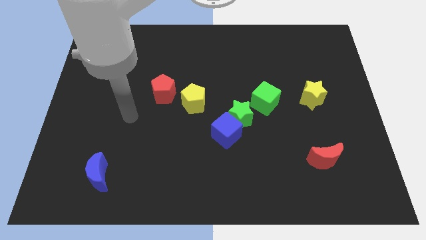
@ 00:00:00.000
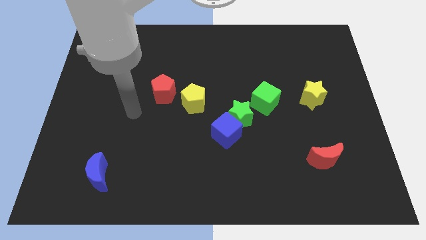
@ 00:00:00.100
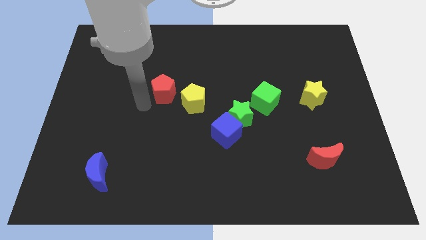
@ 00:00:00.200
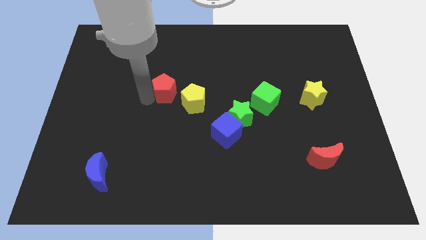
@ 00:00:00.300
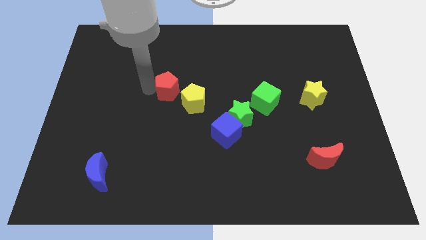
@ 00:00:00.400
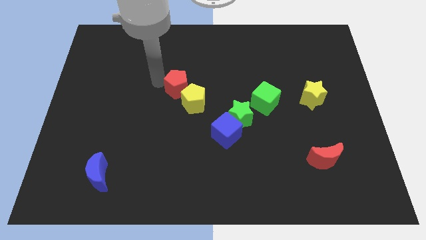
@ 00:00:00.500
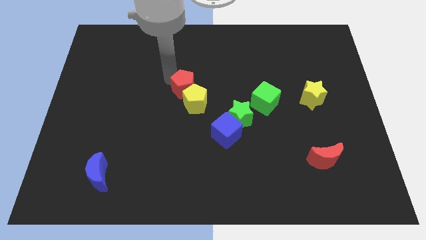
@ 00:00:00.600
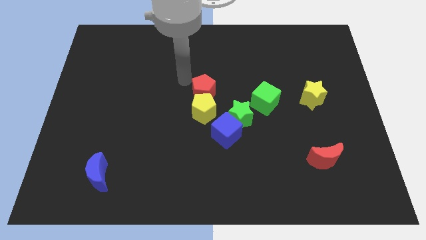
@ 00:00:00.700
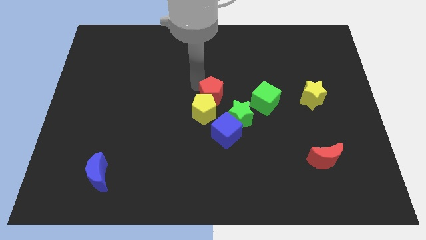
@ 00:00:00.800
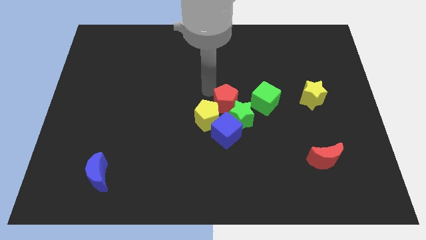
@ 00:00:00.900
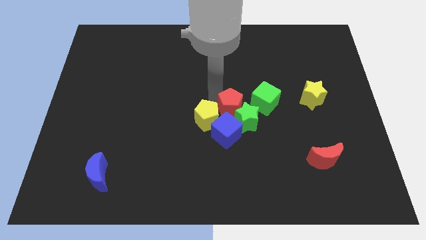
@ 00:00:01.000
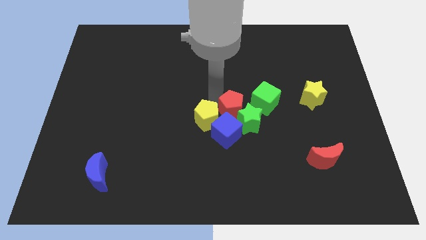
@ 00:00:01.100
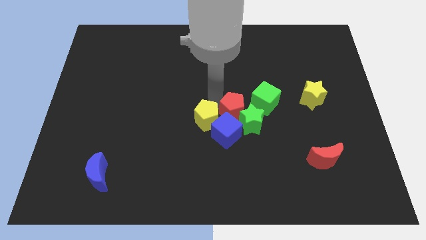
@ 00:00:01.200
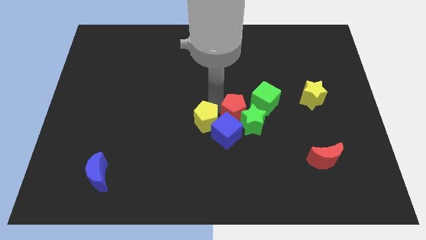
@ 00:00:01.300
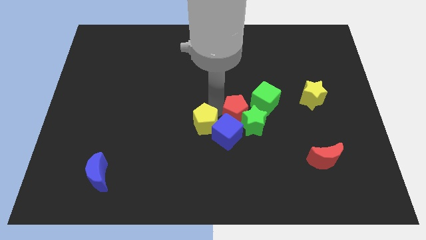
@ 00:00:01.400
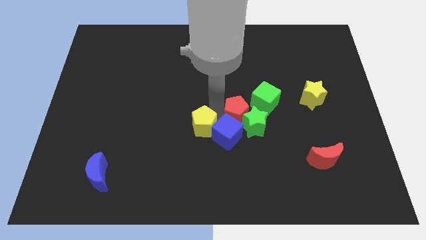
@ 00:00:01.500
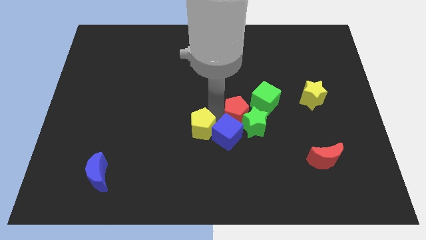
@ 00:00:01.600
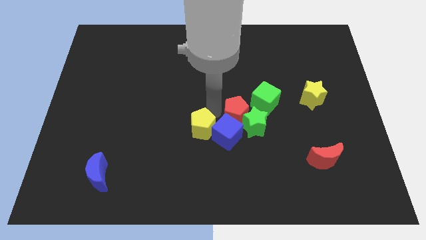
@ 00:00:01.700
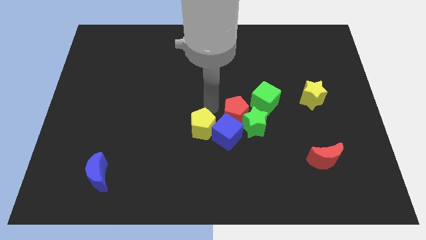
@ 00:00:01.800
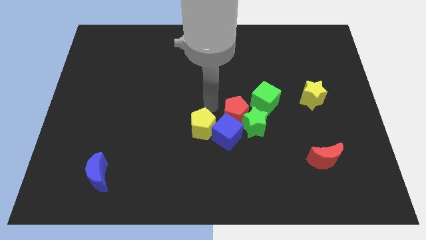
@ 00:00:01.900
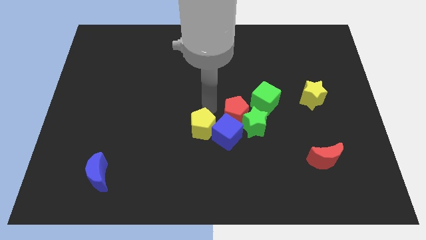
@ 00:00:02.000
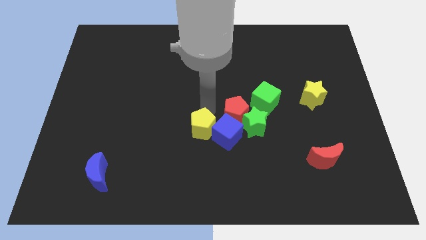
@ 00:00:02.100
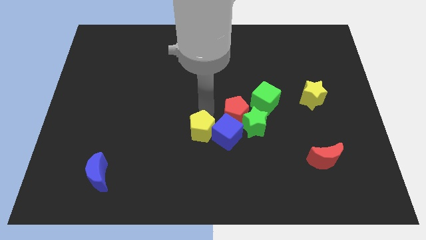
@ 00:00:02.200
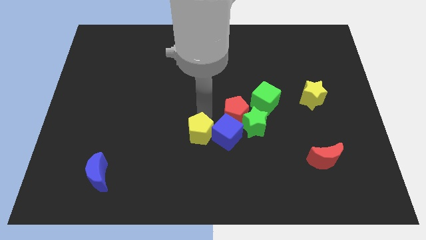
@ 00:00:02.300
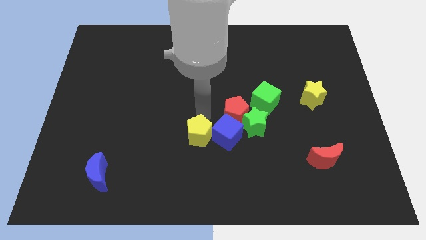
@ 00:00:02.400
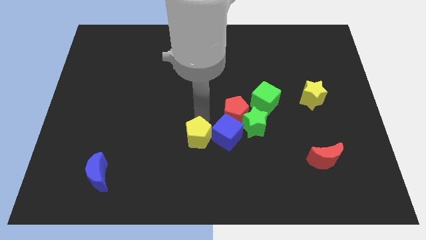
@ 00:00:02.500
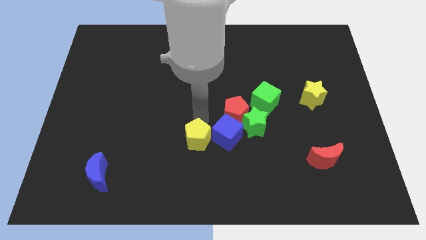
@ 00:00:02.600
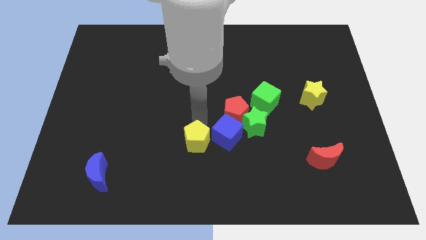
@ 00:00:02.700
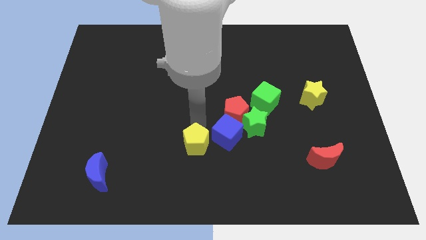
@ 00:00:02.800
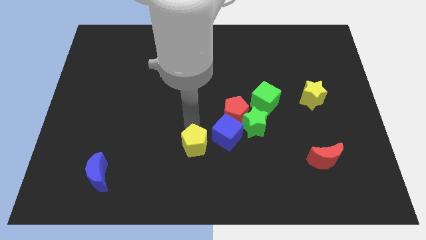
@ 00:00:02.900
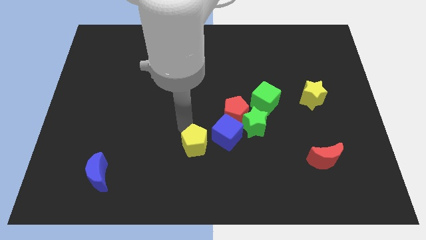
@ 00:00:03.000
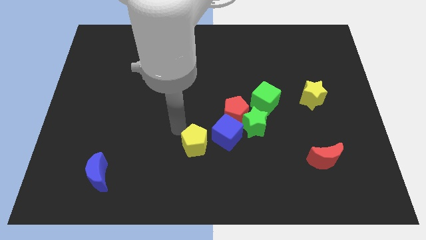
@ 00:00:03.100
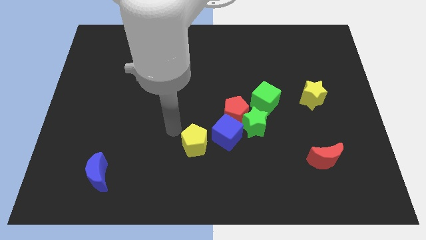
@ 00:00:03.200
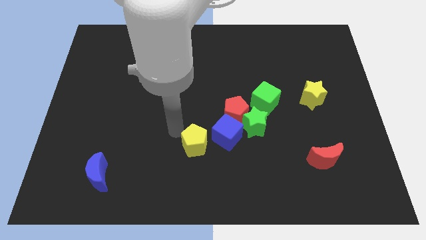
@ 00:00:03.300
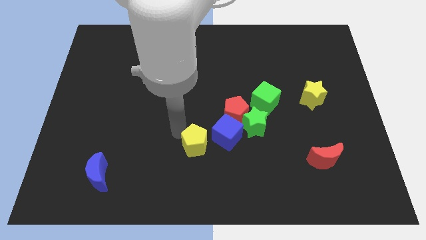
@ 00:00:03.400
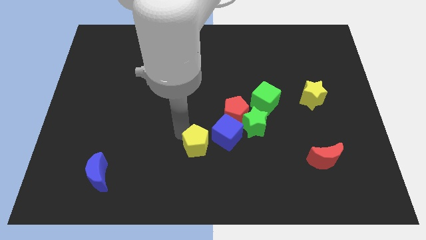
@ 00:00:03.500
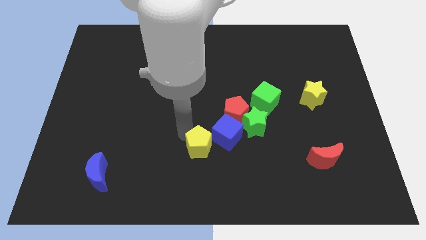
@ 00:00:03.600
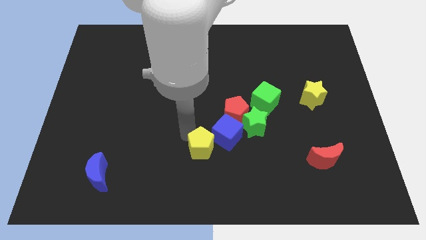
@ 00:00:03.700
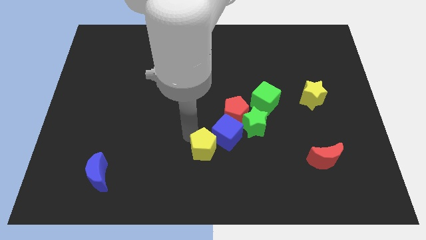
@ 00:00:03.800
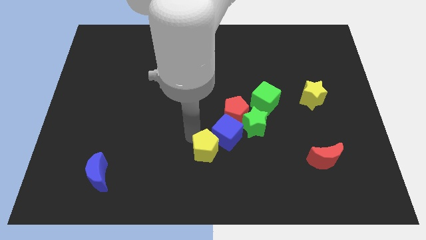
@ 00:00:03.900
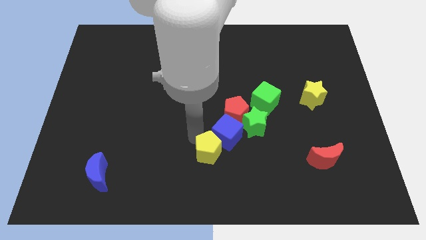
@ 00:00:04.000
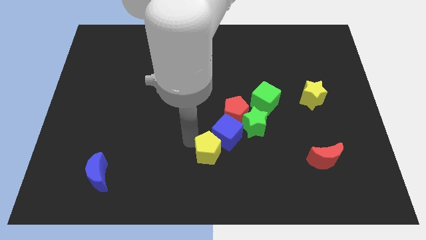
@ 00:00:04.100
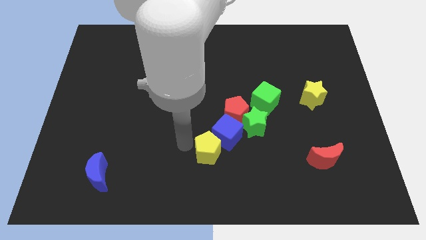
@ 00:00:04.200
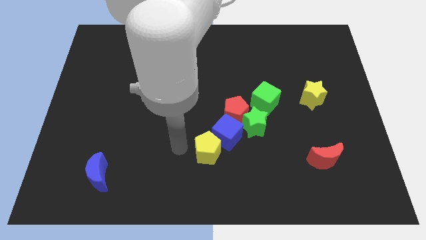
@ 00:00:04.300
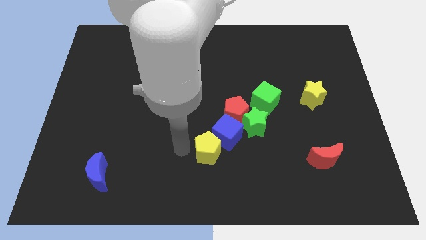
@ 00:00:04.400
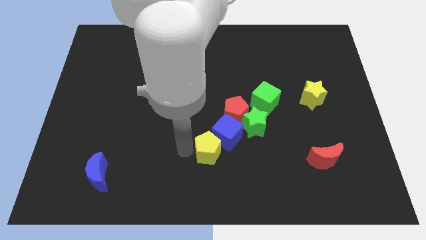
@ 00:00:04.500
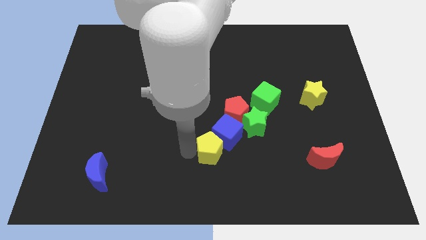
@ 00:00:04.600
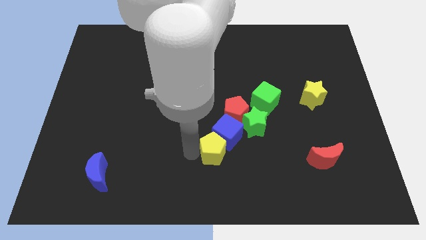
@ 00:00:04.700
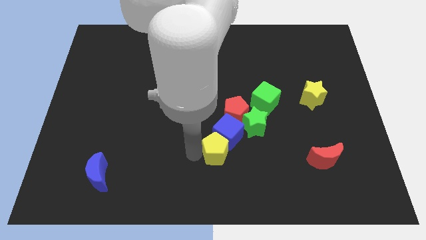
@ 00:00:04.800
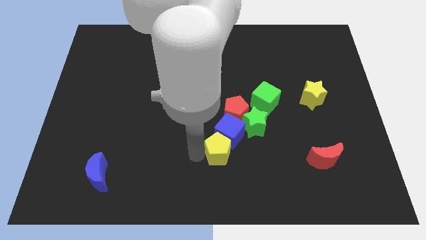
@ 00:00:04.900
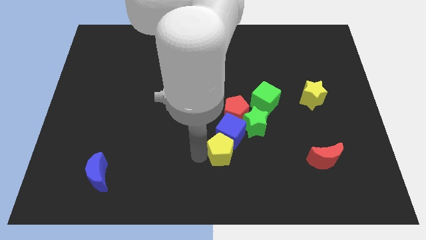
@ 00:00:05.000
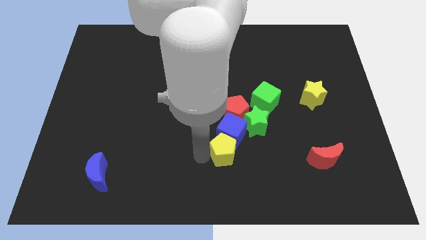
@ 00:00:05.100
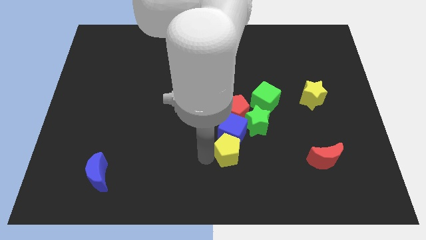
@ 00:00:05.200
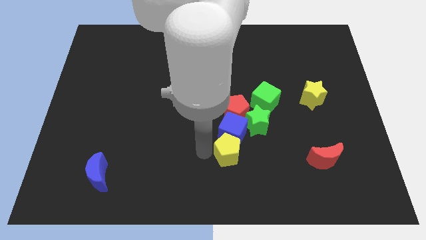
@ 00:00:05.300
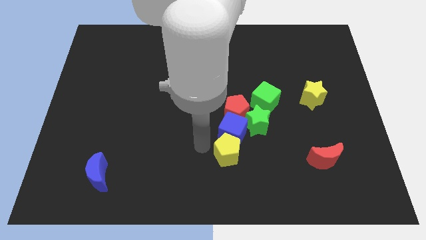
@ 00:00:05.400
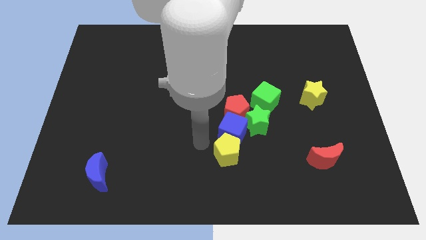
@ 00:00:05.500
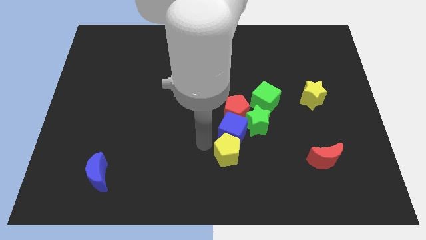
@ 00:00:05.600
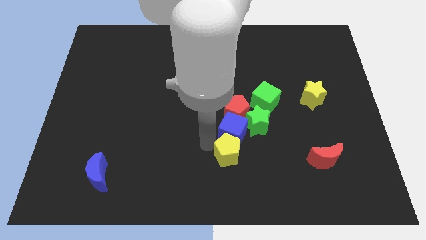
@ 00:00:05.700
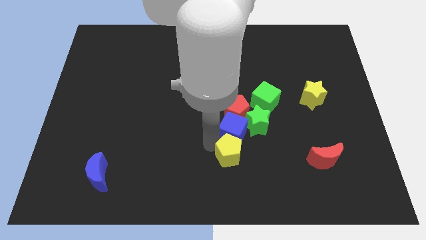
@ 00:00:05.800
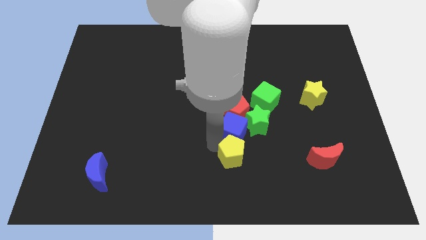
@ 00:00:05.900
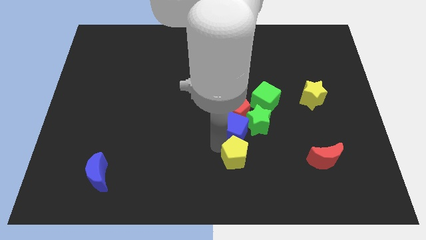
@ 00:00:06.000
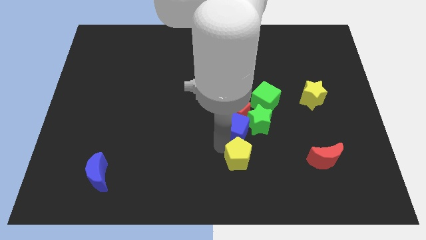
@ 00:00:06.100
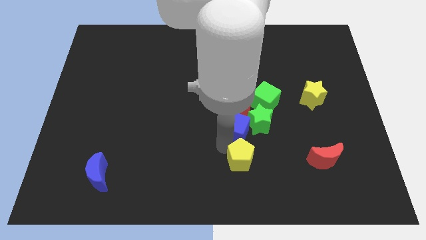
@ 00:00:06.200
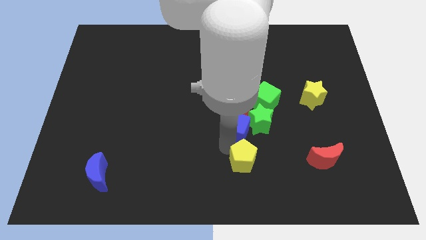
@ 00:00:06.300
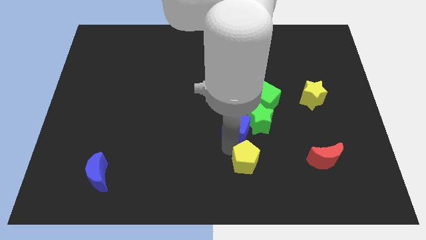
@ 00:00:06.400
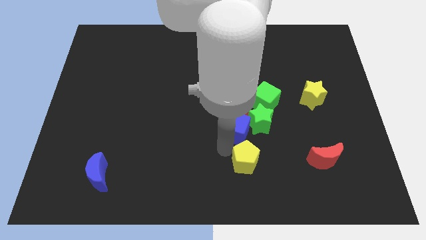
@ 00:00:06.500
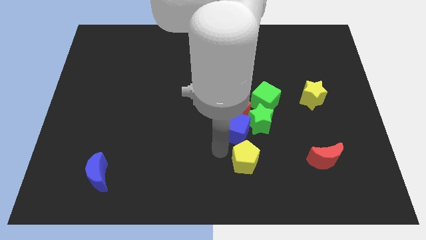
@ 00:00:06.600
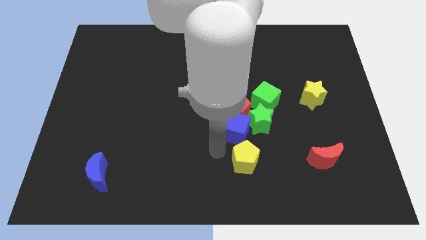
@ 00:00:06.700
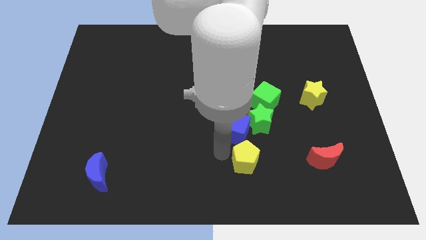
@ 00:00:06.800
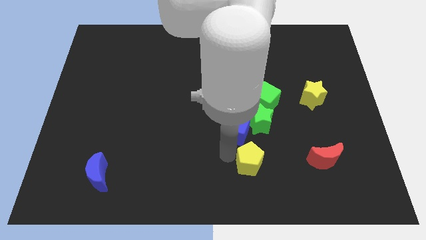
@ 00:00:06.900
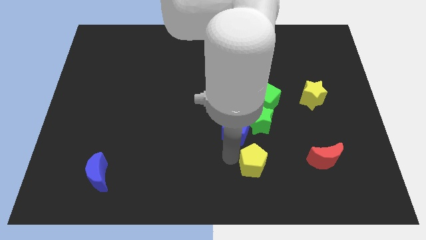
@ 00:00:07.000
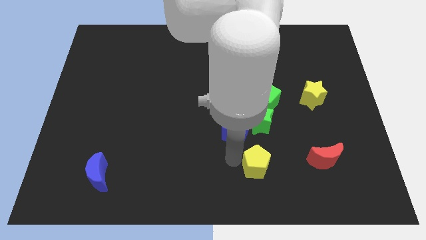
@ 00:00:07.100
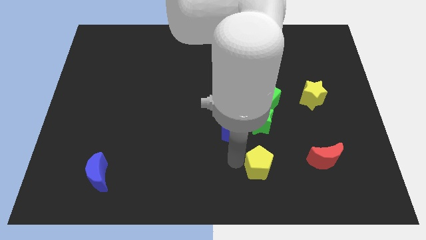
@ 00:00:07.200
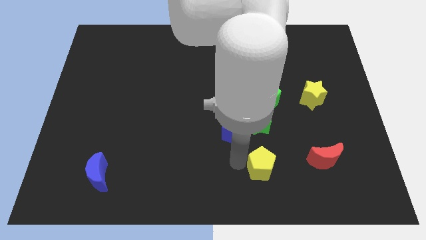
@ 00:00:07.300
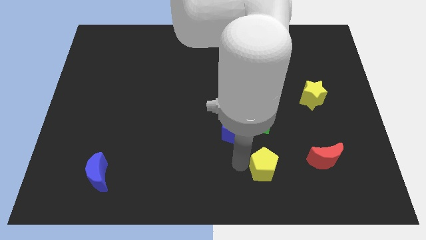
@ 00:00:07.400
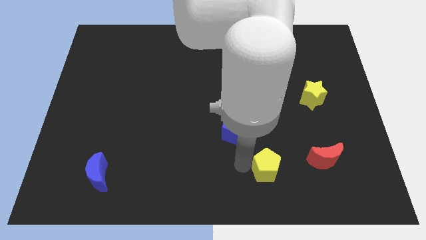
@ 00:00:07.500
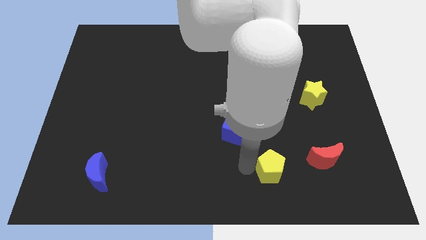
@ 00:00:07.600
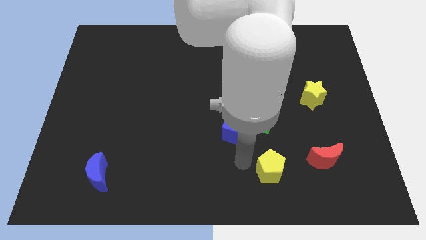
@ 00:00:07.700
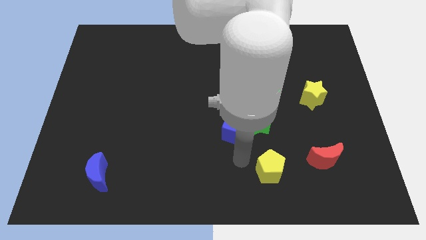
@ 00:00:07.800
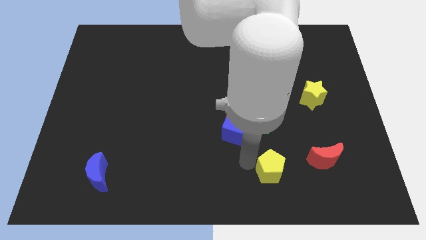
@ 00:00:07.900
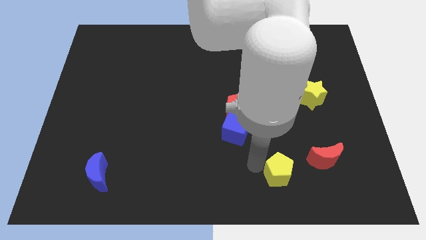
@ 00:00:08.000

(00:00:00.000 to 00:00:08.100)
push the yellow pentagon to the bottom left side of the red moon
